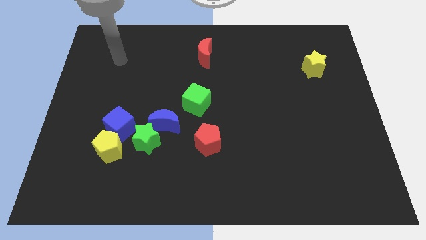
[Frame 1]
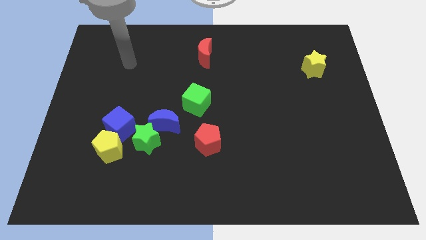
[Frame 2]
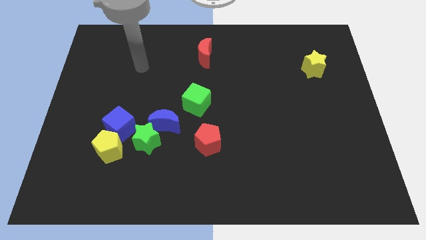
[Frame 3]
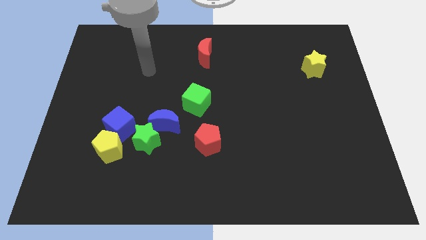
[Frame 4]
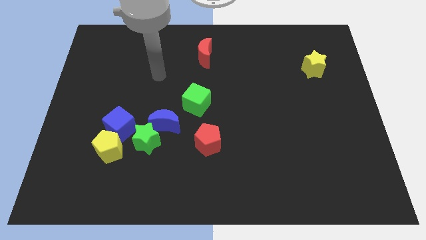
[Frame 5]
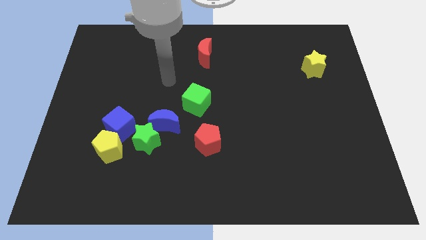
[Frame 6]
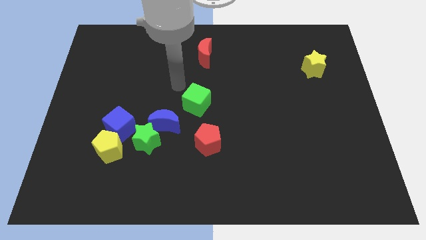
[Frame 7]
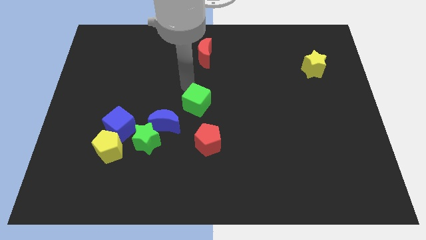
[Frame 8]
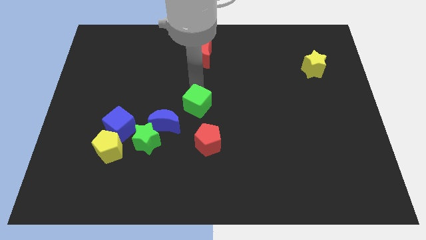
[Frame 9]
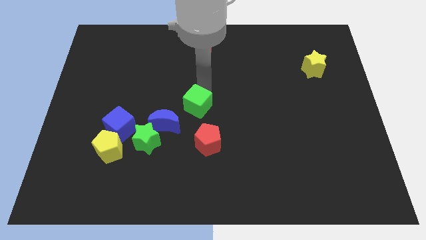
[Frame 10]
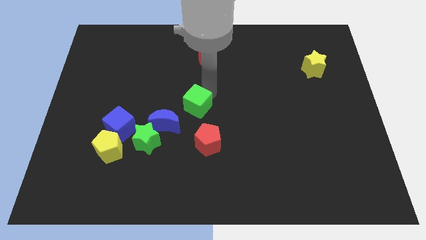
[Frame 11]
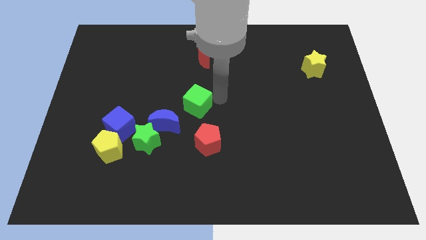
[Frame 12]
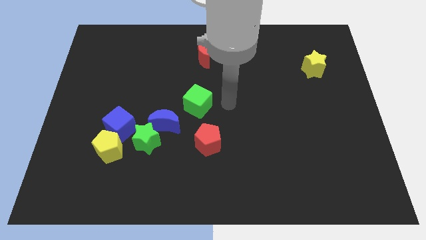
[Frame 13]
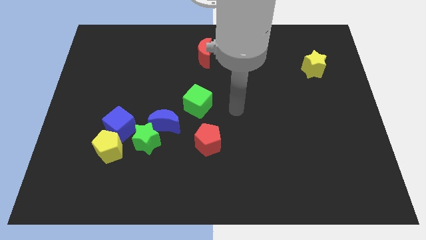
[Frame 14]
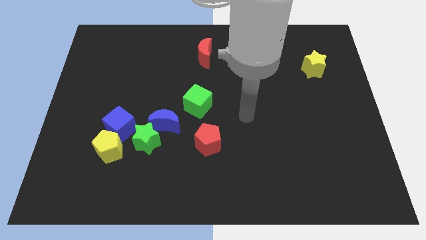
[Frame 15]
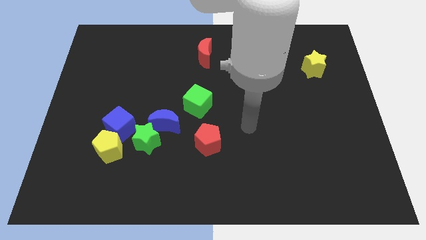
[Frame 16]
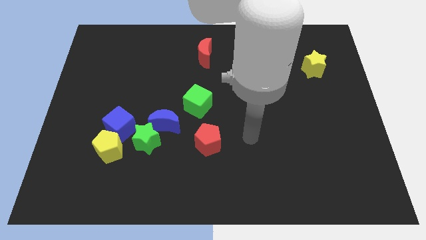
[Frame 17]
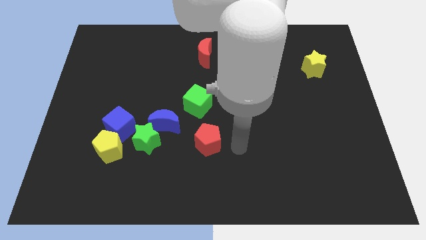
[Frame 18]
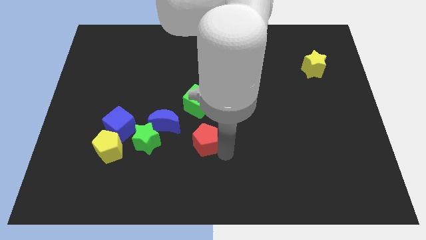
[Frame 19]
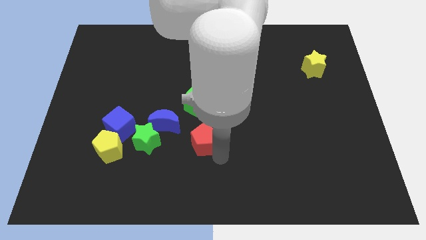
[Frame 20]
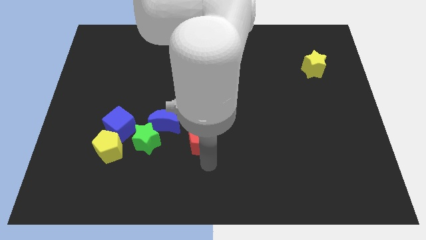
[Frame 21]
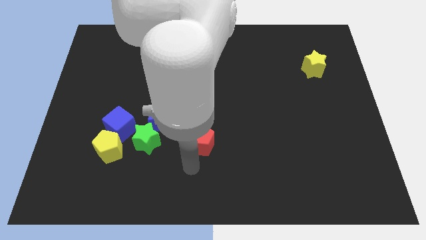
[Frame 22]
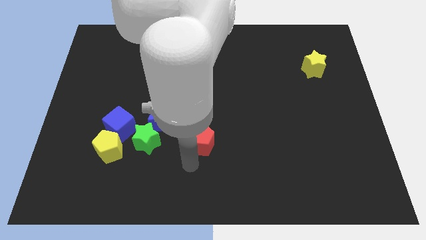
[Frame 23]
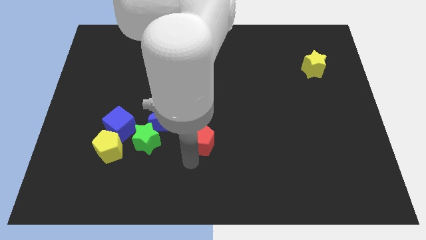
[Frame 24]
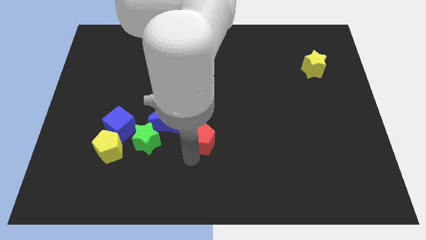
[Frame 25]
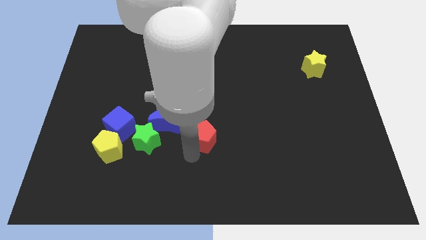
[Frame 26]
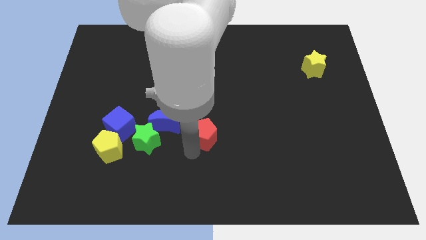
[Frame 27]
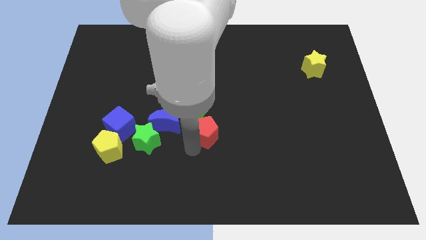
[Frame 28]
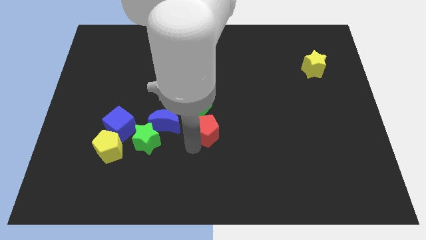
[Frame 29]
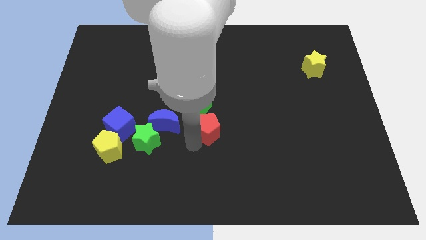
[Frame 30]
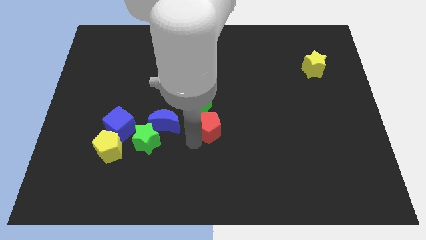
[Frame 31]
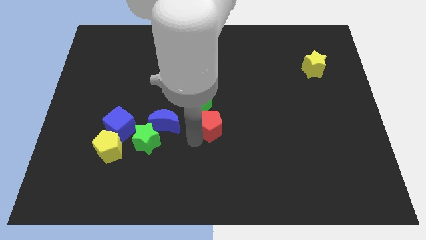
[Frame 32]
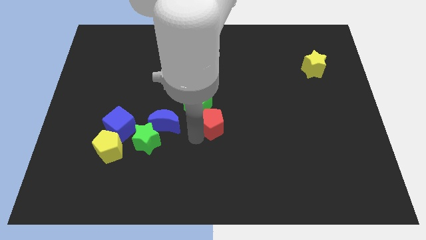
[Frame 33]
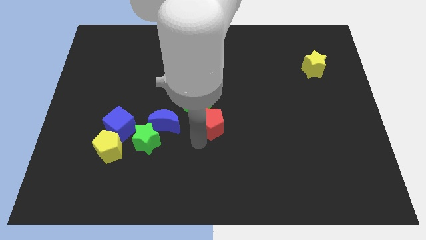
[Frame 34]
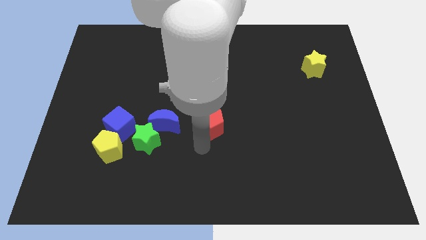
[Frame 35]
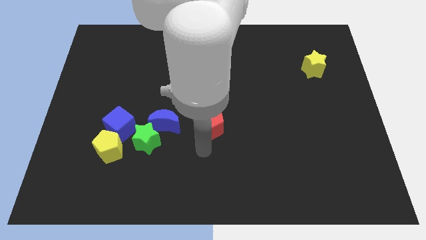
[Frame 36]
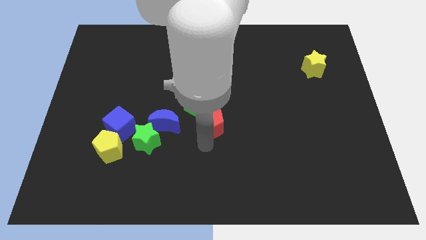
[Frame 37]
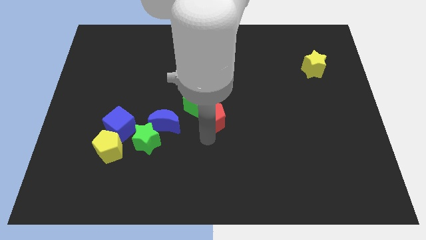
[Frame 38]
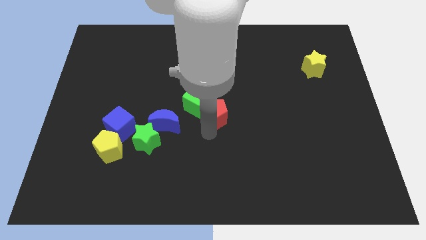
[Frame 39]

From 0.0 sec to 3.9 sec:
slide the red pentagon upwards a little

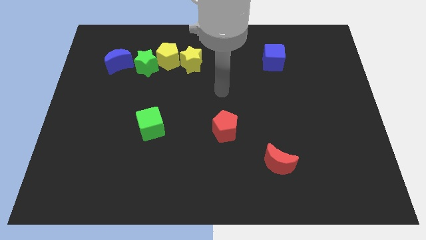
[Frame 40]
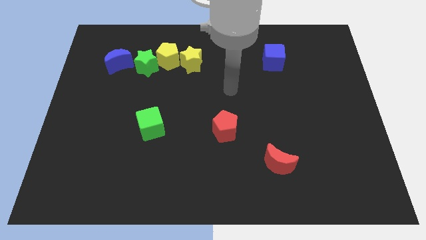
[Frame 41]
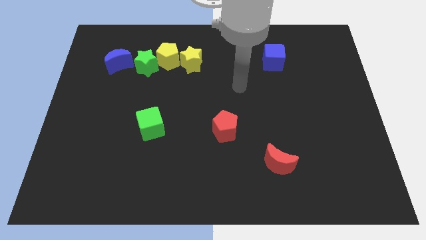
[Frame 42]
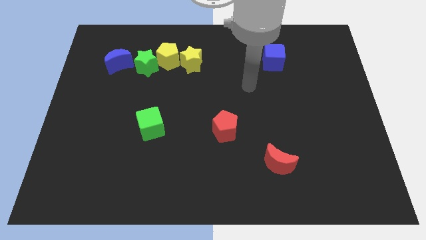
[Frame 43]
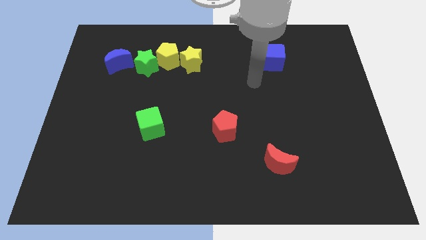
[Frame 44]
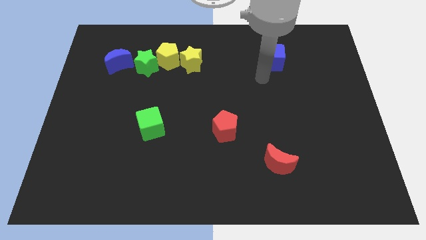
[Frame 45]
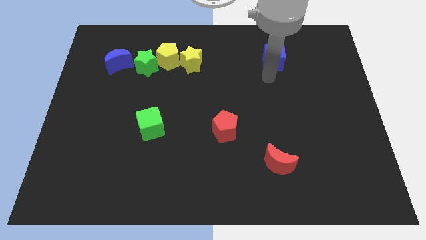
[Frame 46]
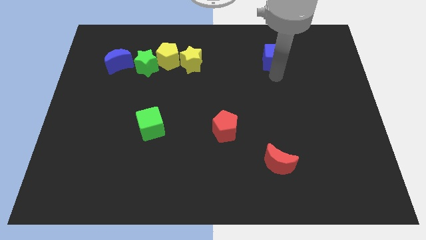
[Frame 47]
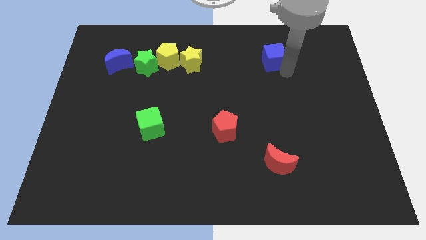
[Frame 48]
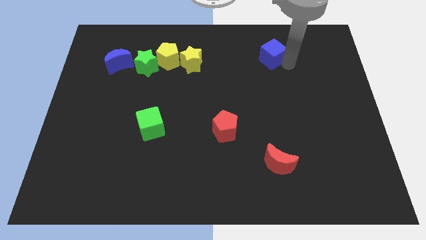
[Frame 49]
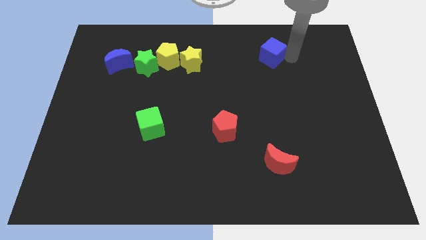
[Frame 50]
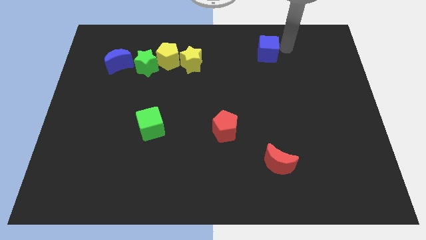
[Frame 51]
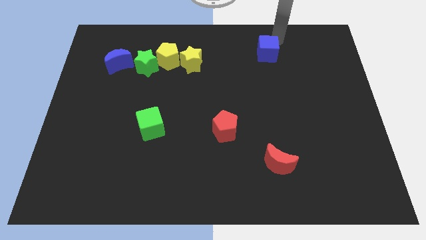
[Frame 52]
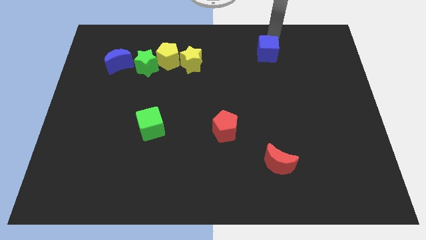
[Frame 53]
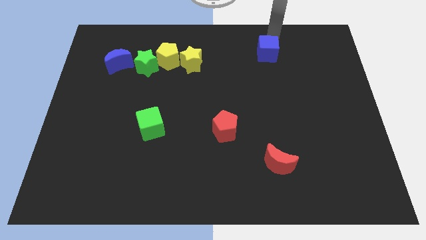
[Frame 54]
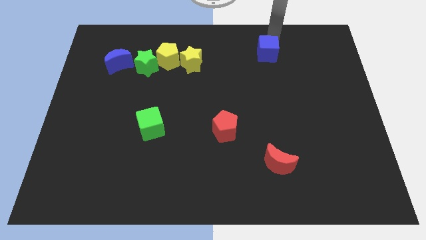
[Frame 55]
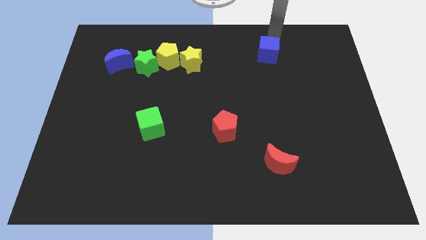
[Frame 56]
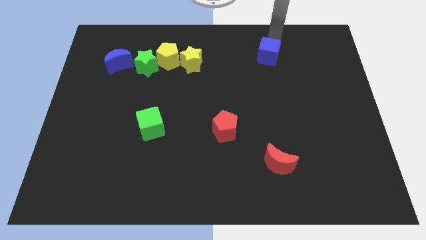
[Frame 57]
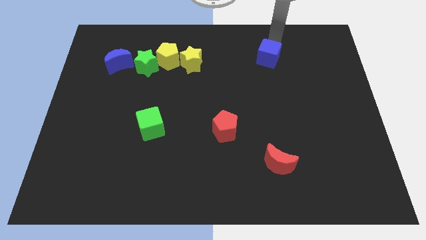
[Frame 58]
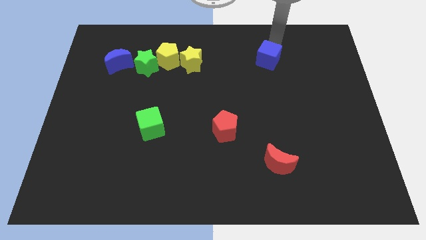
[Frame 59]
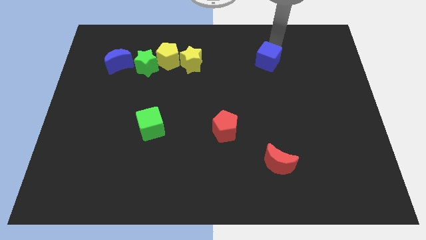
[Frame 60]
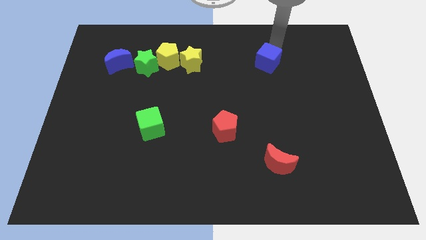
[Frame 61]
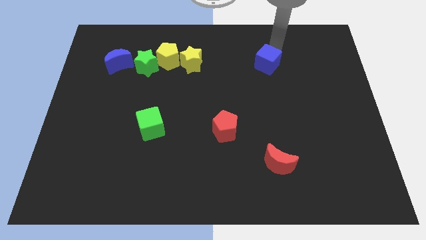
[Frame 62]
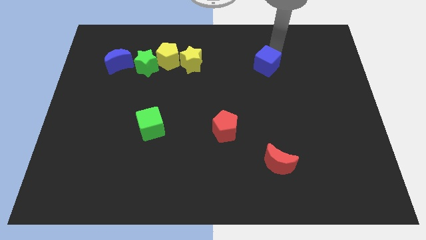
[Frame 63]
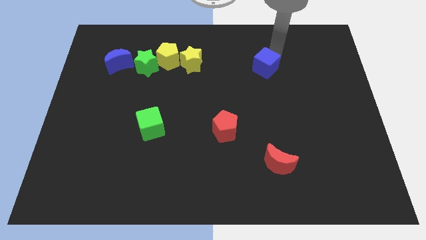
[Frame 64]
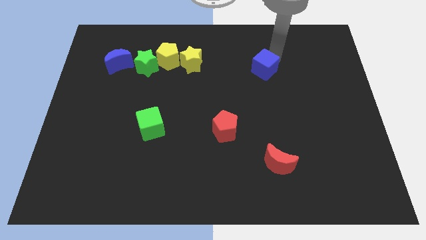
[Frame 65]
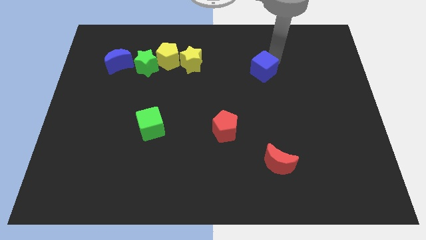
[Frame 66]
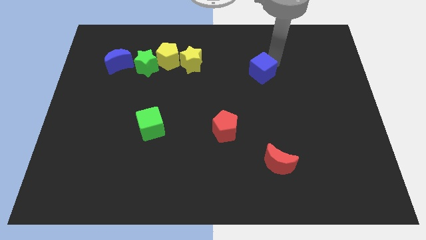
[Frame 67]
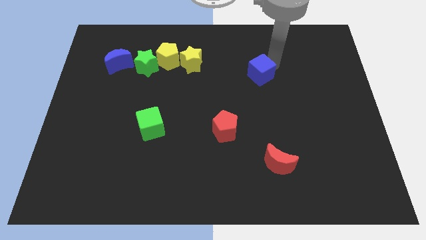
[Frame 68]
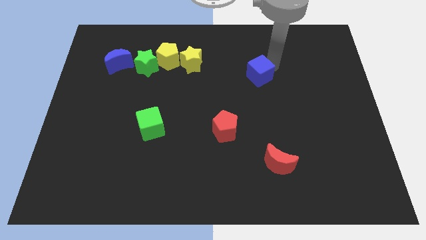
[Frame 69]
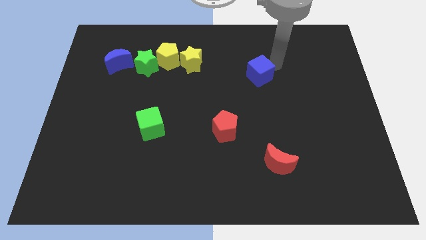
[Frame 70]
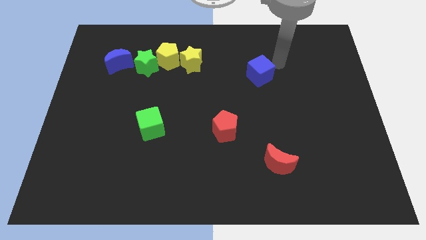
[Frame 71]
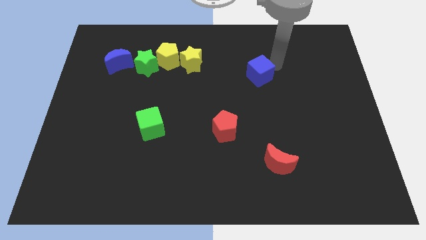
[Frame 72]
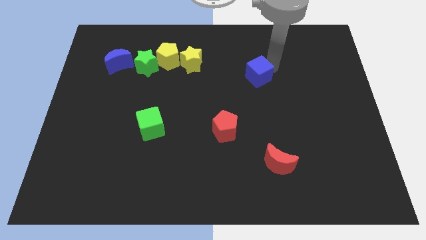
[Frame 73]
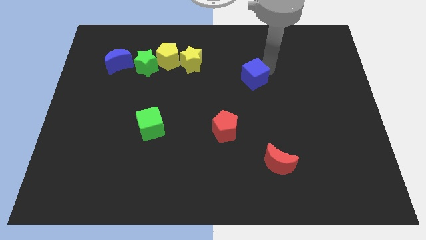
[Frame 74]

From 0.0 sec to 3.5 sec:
slide the blue cube somewhat diagonally down and to the left

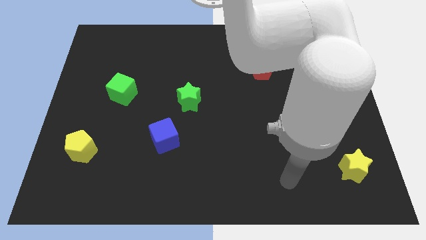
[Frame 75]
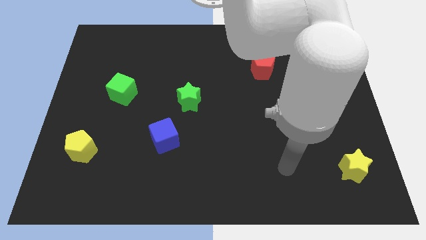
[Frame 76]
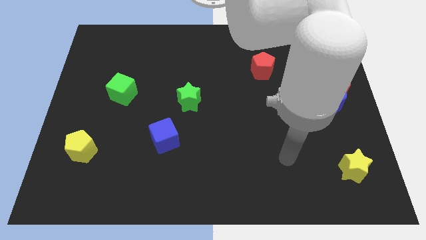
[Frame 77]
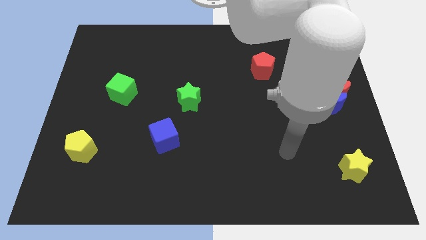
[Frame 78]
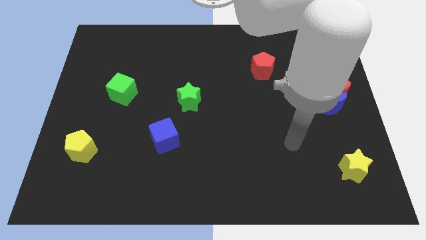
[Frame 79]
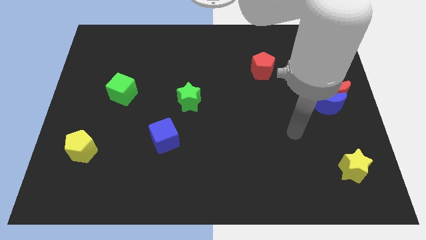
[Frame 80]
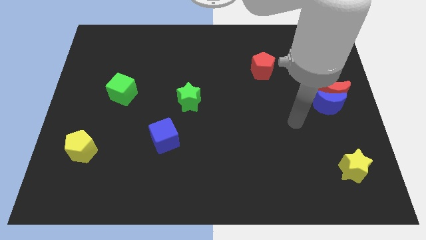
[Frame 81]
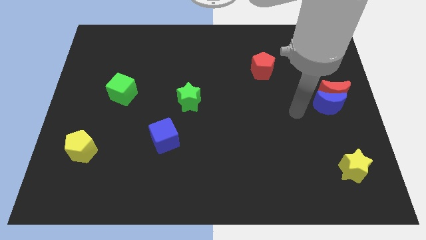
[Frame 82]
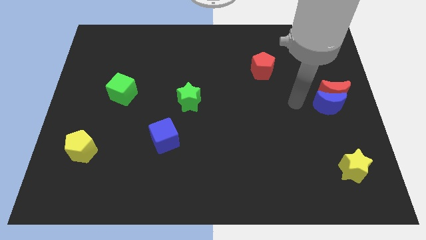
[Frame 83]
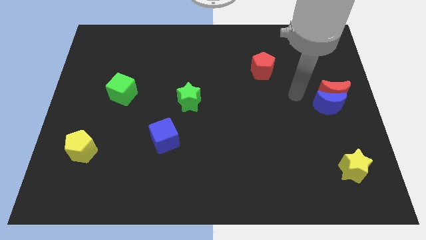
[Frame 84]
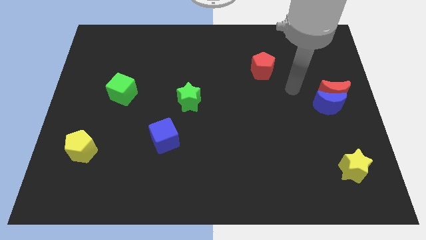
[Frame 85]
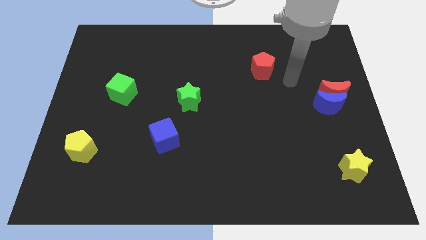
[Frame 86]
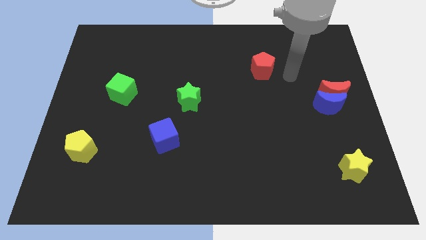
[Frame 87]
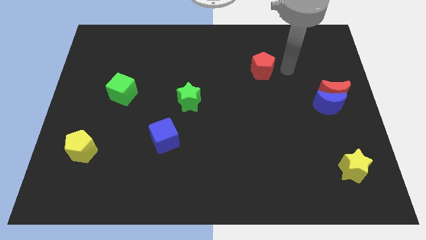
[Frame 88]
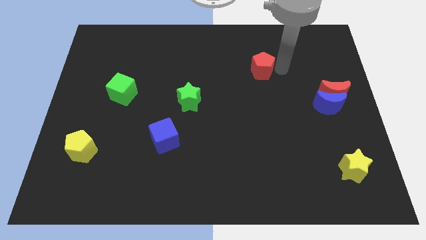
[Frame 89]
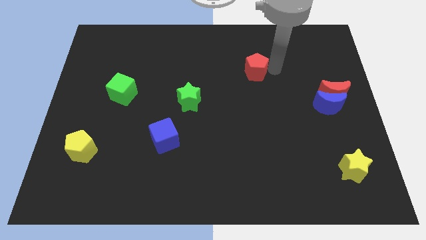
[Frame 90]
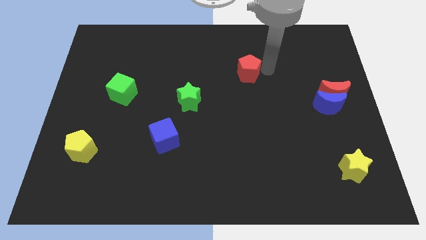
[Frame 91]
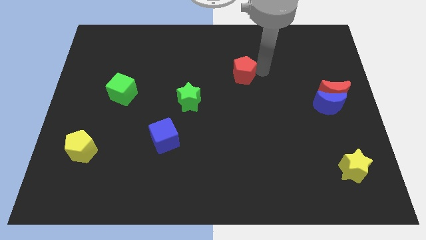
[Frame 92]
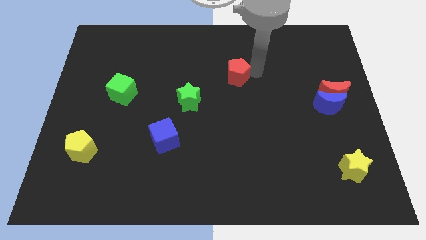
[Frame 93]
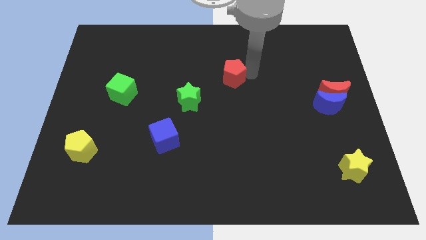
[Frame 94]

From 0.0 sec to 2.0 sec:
slightly slide the red pentagon left
